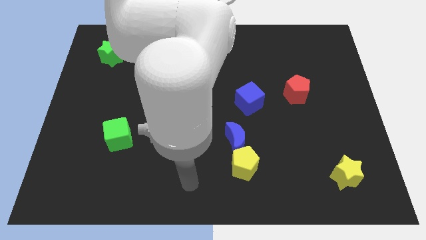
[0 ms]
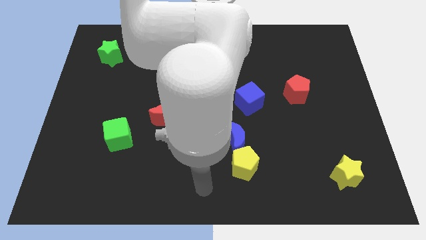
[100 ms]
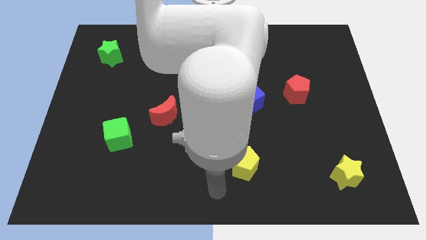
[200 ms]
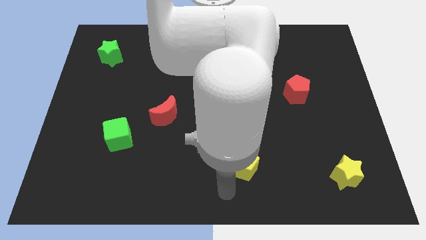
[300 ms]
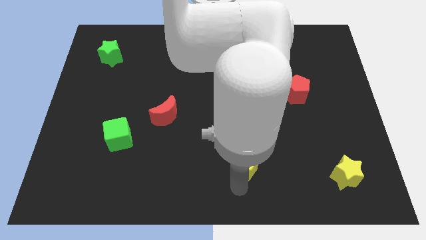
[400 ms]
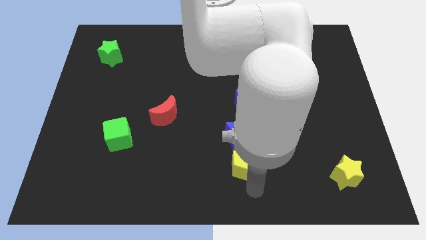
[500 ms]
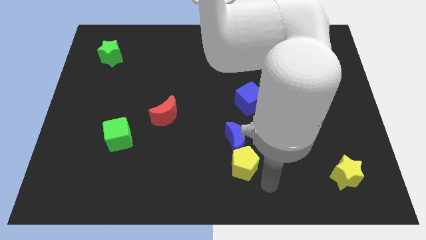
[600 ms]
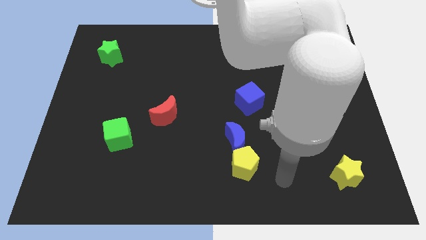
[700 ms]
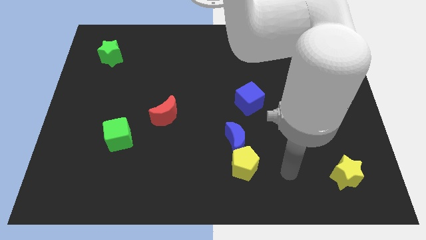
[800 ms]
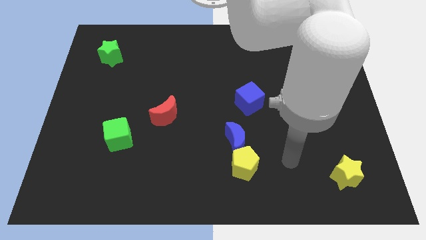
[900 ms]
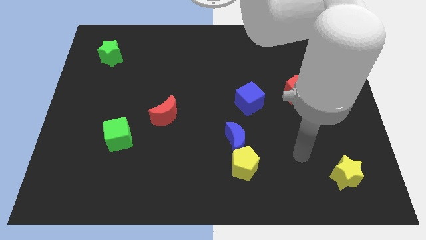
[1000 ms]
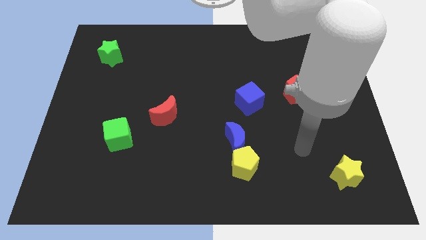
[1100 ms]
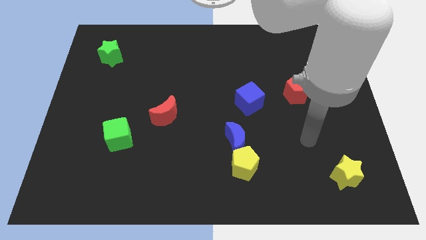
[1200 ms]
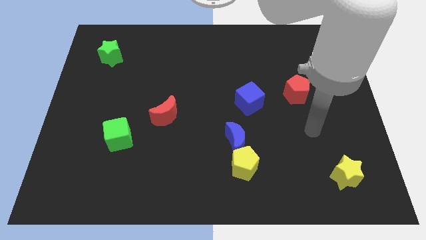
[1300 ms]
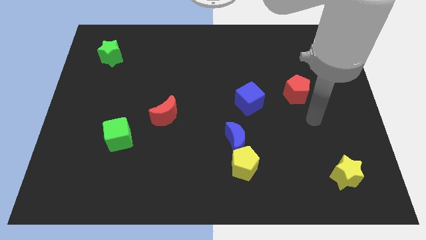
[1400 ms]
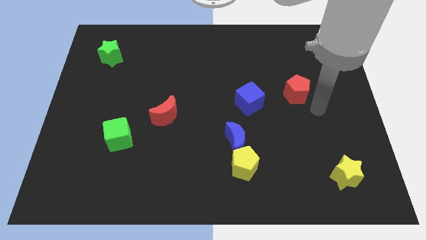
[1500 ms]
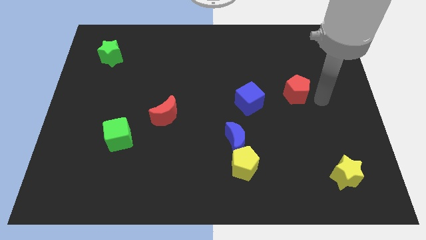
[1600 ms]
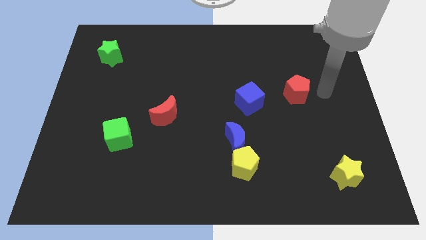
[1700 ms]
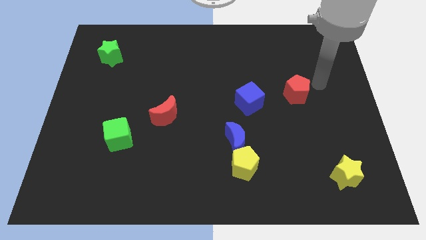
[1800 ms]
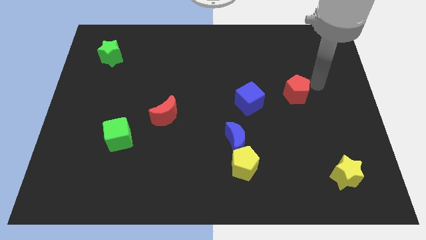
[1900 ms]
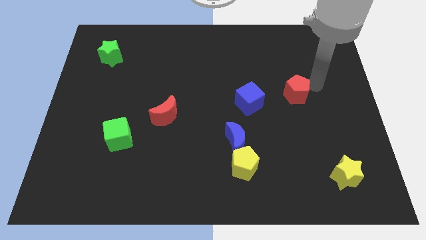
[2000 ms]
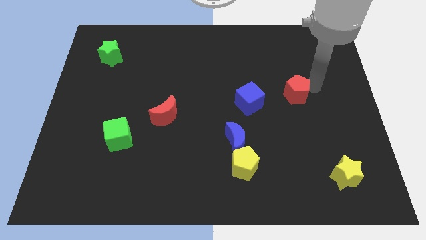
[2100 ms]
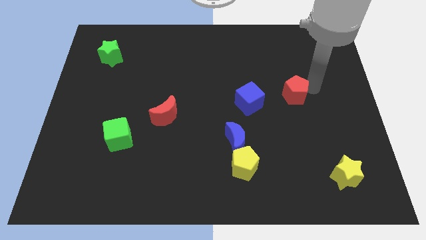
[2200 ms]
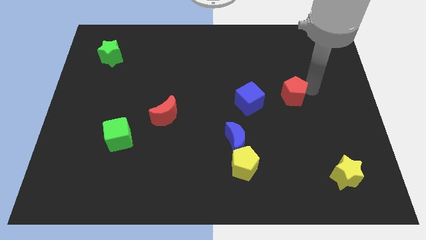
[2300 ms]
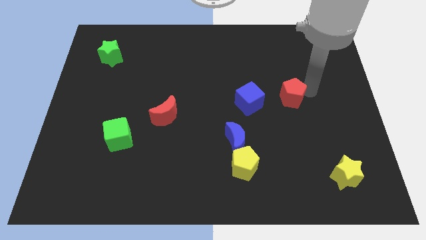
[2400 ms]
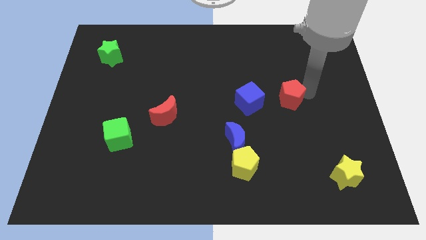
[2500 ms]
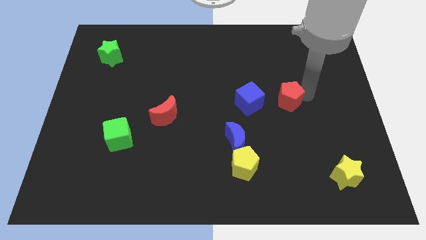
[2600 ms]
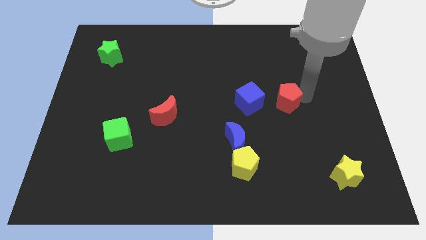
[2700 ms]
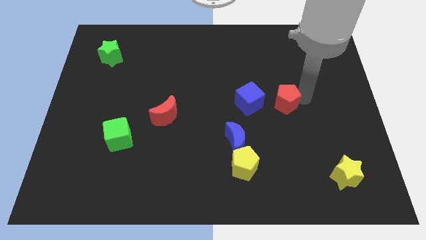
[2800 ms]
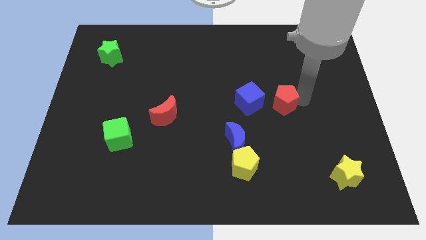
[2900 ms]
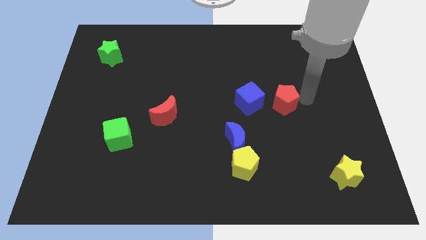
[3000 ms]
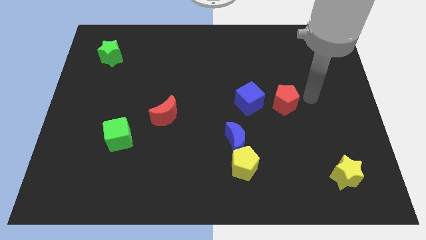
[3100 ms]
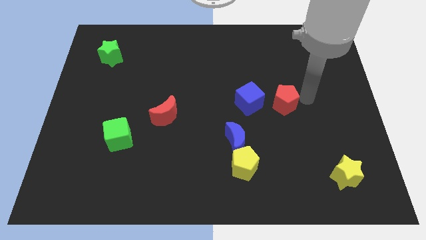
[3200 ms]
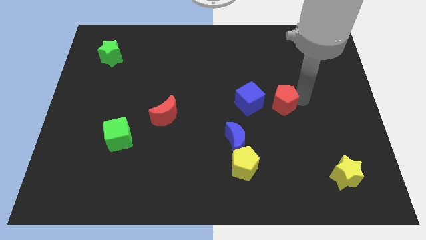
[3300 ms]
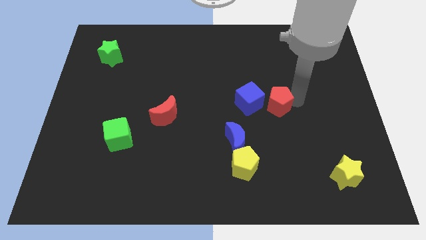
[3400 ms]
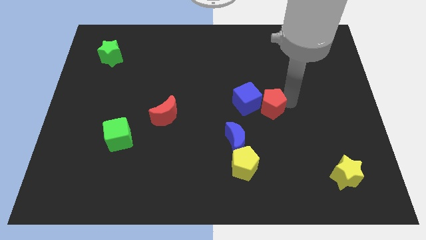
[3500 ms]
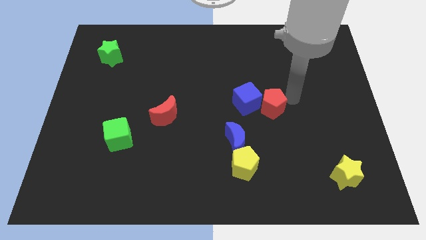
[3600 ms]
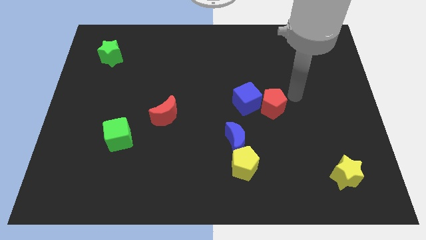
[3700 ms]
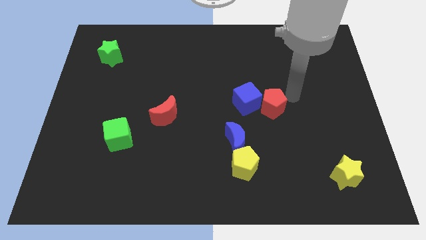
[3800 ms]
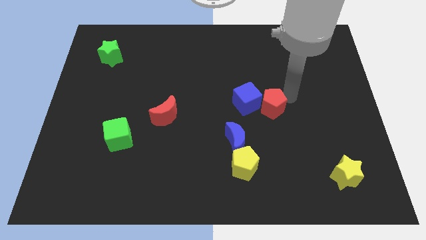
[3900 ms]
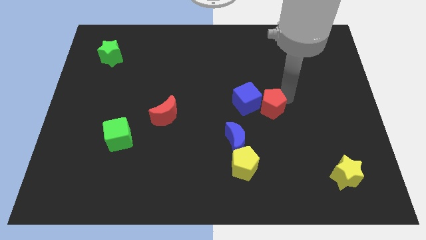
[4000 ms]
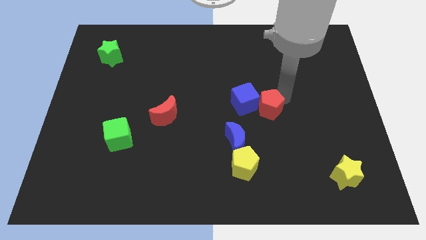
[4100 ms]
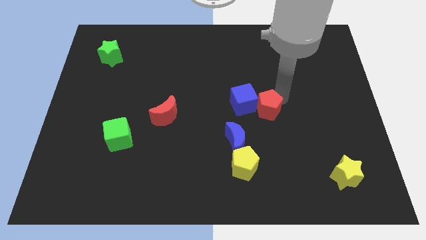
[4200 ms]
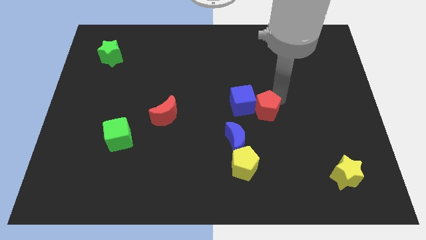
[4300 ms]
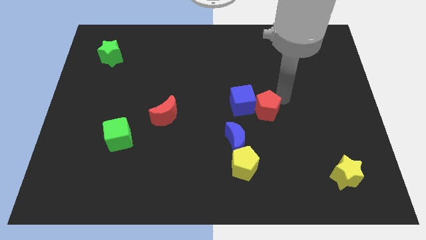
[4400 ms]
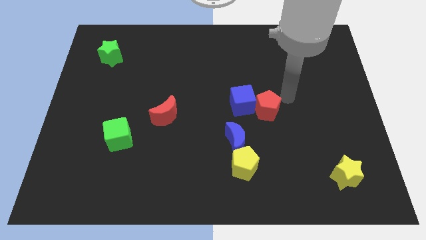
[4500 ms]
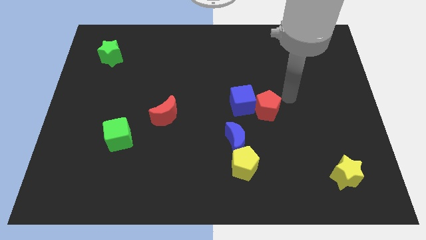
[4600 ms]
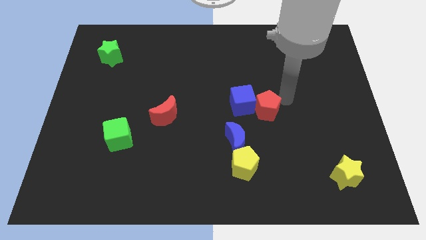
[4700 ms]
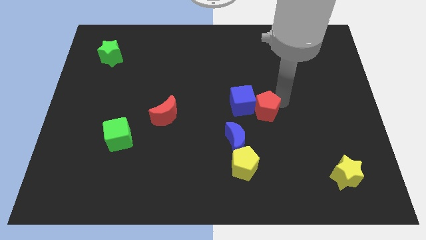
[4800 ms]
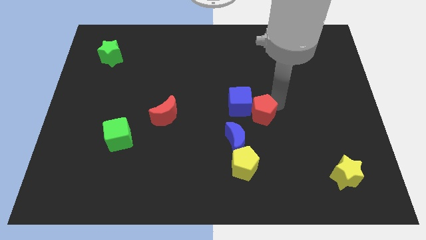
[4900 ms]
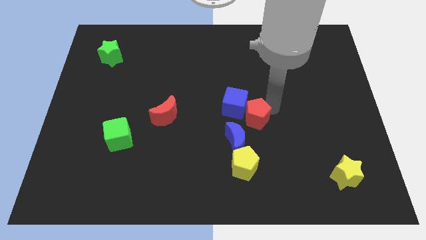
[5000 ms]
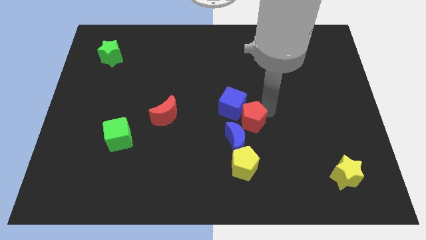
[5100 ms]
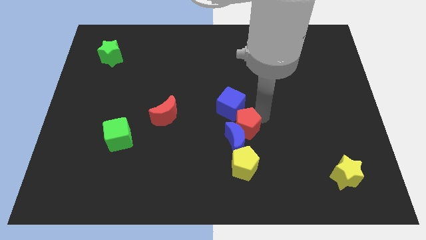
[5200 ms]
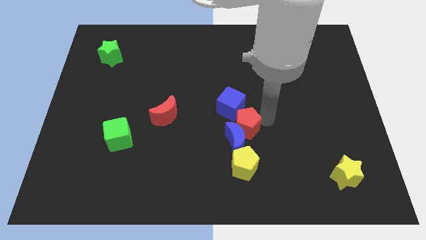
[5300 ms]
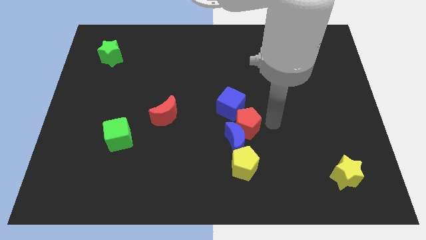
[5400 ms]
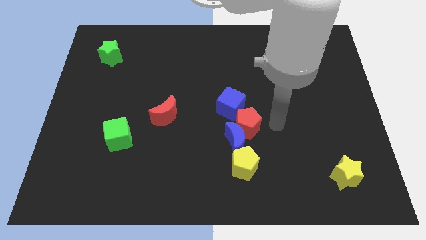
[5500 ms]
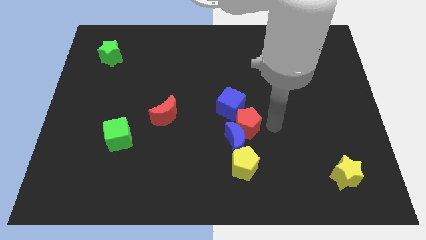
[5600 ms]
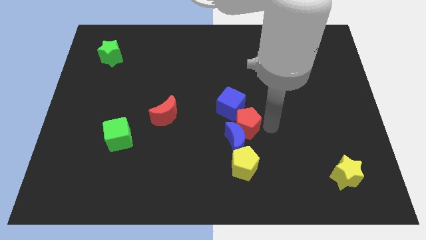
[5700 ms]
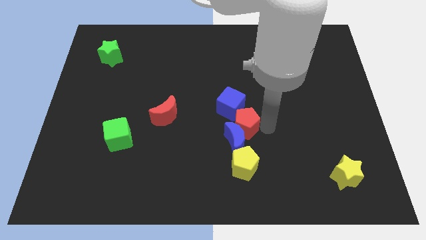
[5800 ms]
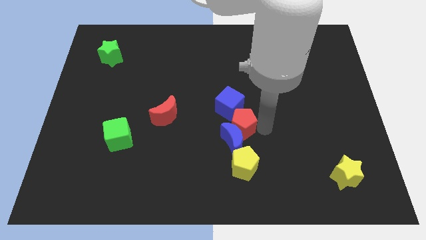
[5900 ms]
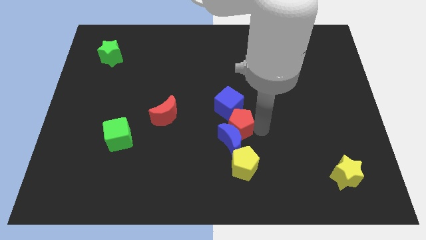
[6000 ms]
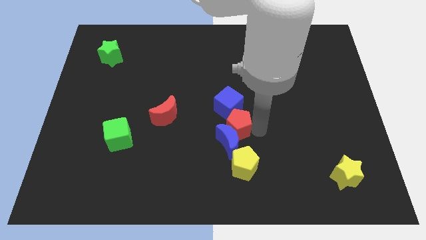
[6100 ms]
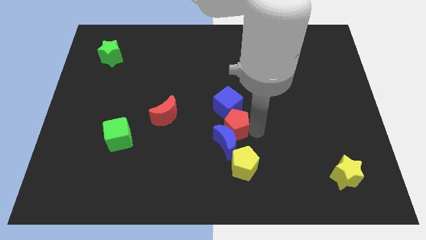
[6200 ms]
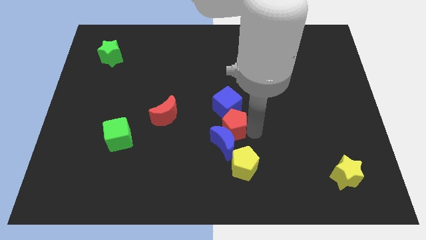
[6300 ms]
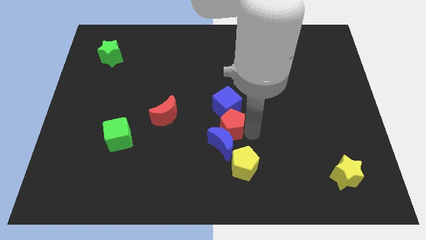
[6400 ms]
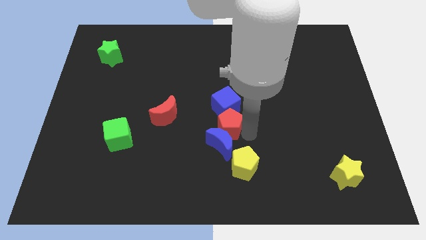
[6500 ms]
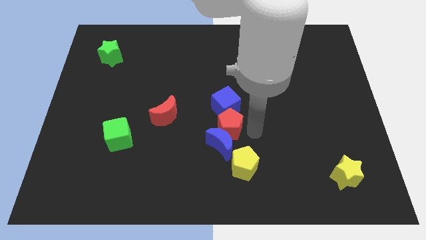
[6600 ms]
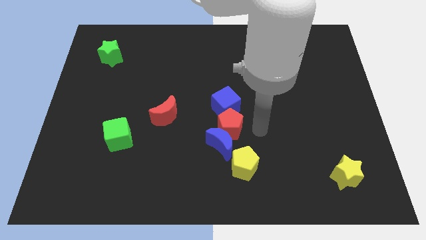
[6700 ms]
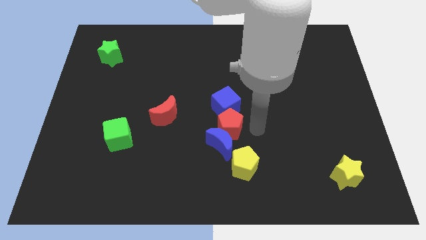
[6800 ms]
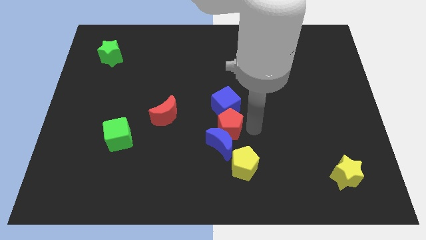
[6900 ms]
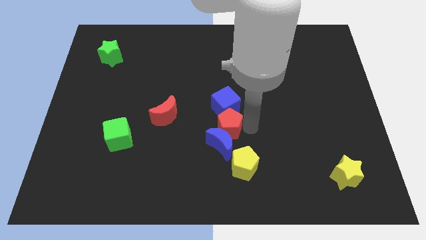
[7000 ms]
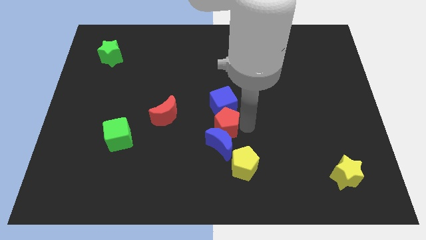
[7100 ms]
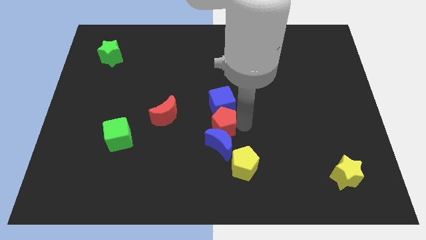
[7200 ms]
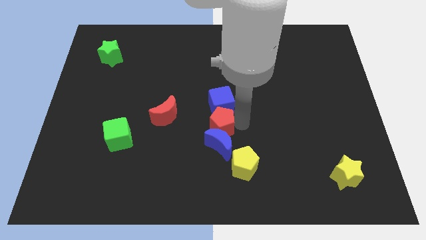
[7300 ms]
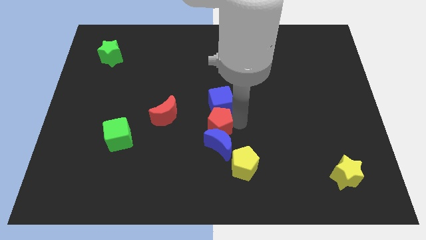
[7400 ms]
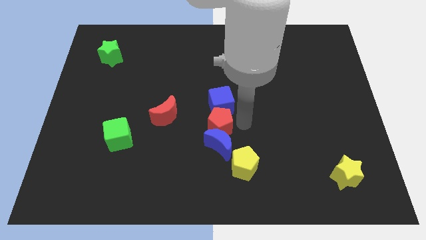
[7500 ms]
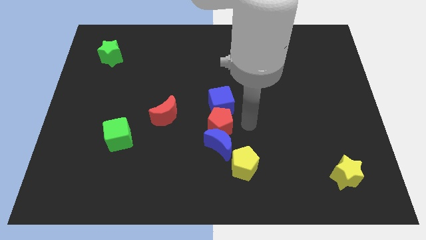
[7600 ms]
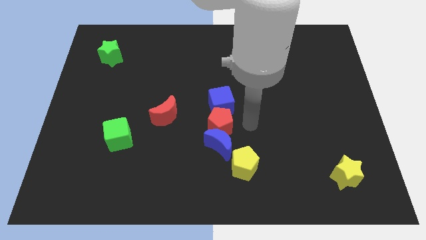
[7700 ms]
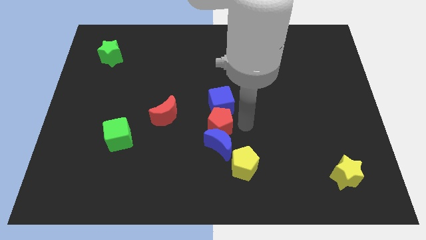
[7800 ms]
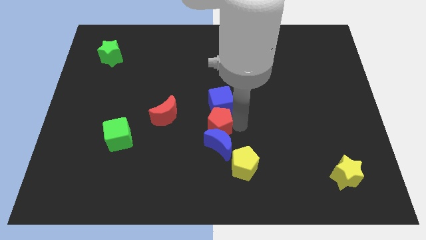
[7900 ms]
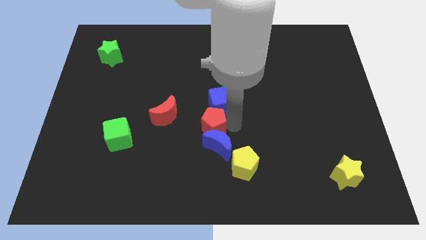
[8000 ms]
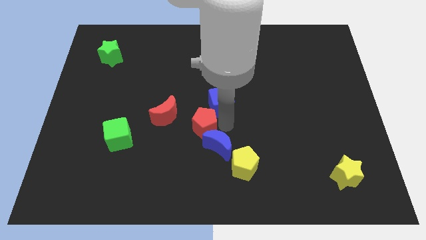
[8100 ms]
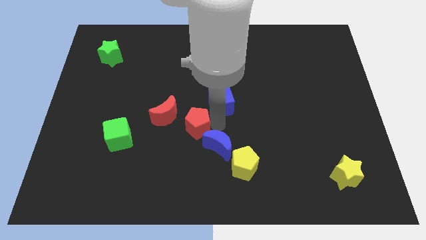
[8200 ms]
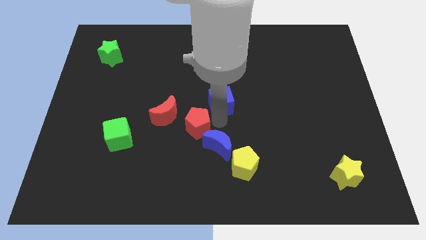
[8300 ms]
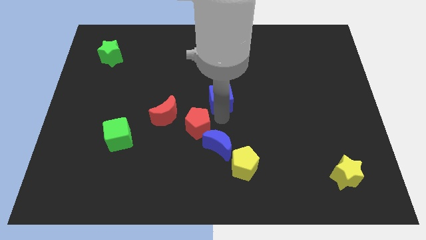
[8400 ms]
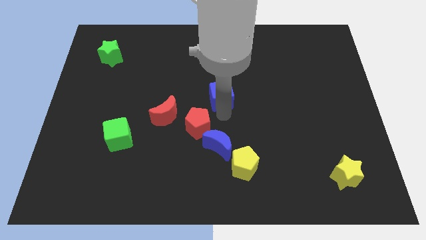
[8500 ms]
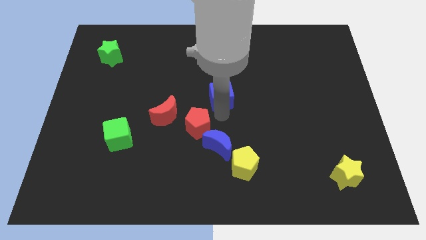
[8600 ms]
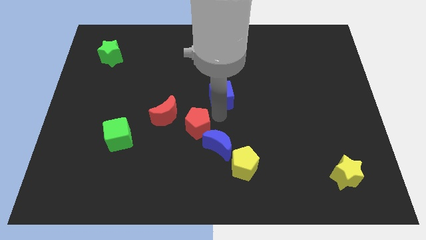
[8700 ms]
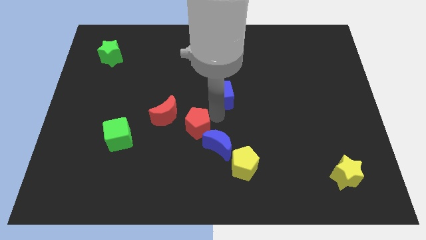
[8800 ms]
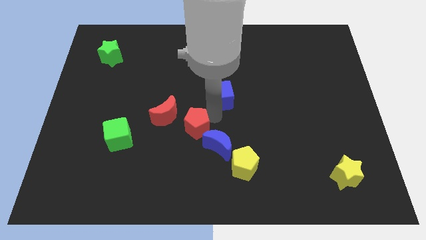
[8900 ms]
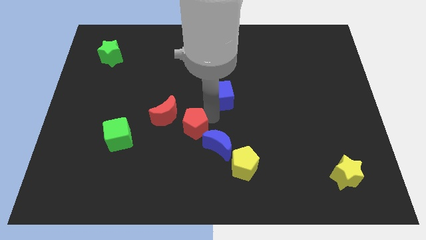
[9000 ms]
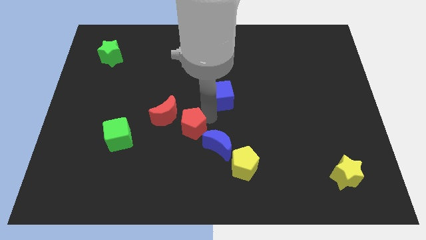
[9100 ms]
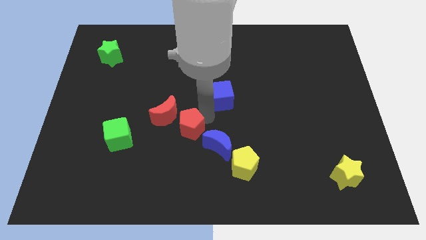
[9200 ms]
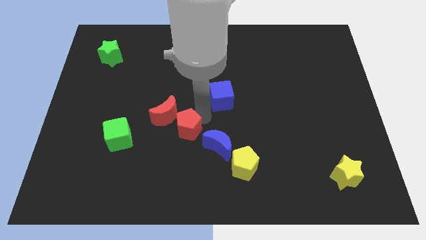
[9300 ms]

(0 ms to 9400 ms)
push the red pentagon just right of the green cube
